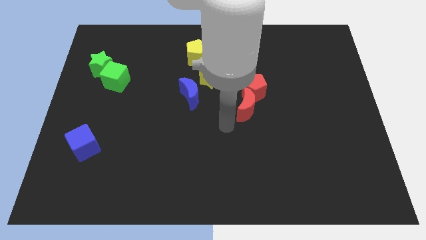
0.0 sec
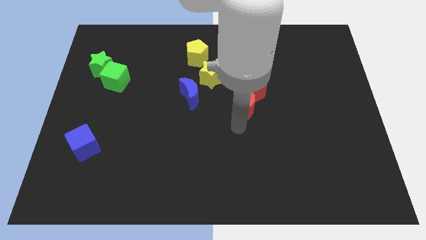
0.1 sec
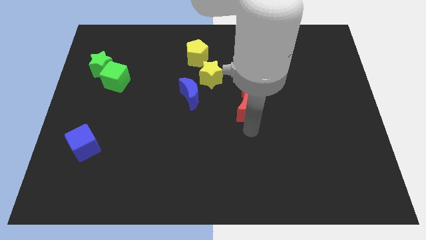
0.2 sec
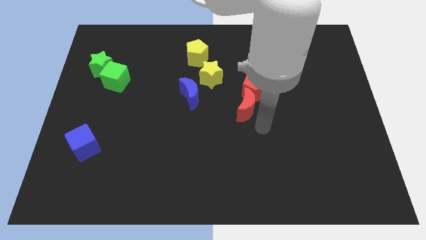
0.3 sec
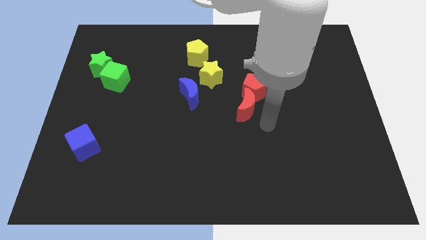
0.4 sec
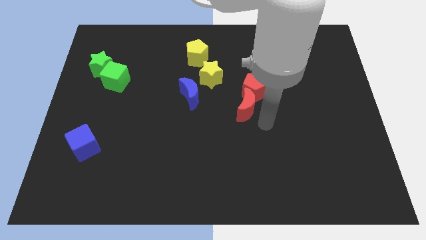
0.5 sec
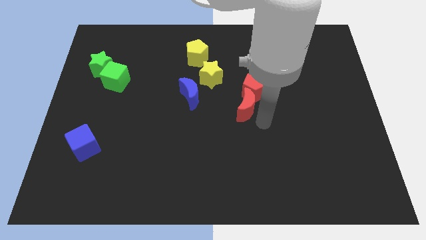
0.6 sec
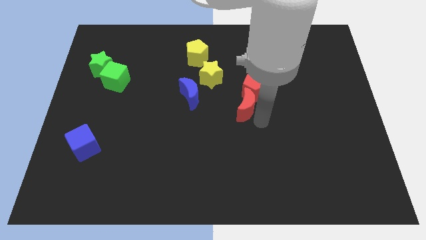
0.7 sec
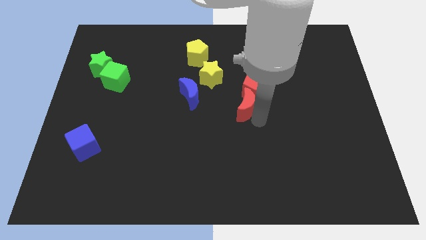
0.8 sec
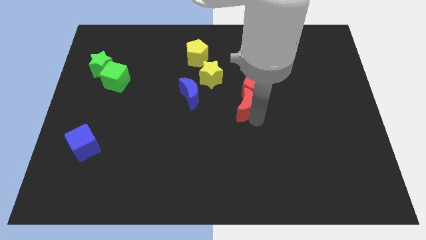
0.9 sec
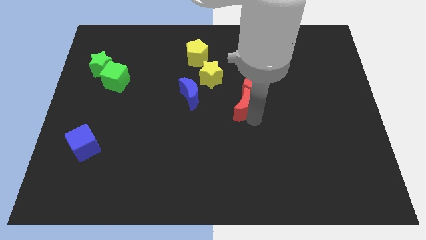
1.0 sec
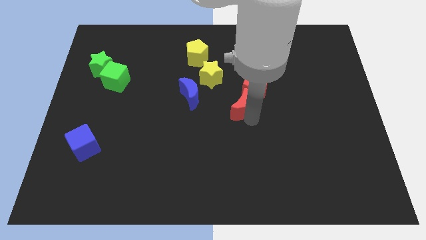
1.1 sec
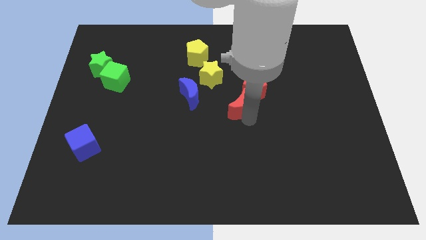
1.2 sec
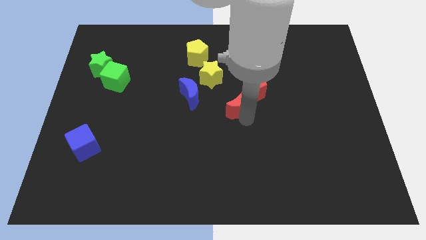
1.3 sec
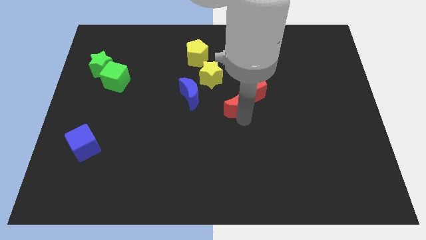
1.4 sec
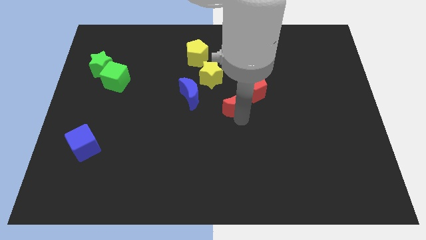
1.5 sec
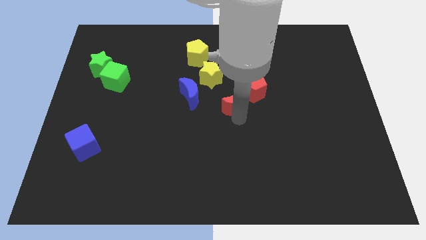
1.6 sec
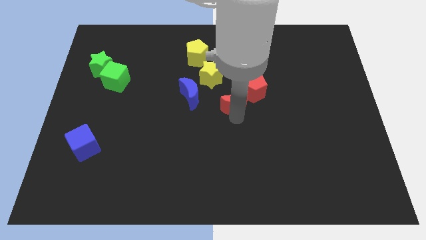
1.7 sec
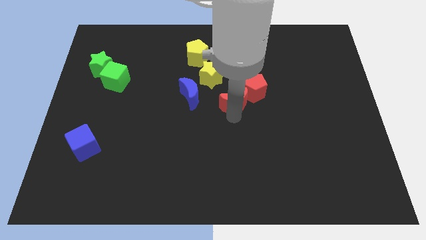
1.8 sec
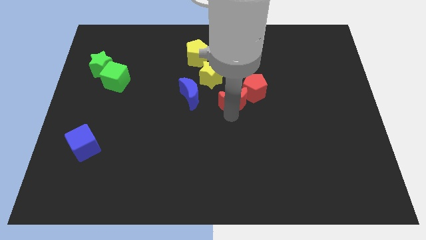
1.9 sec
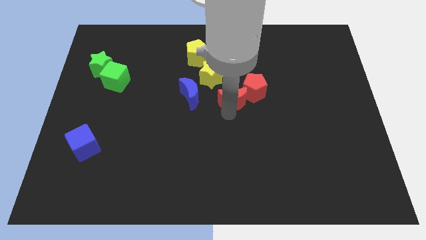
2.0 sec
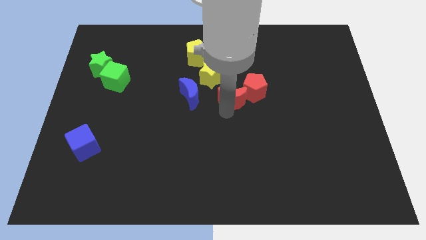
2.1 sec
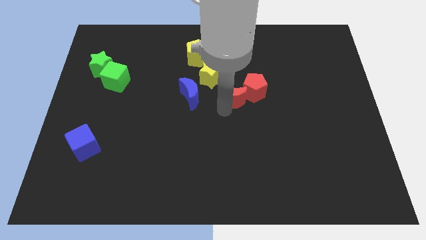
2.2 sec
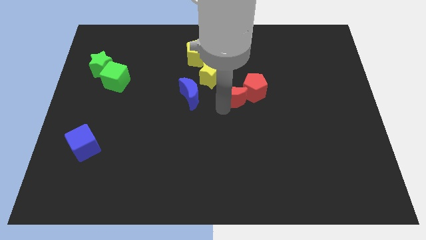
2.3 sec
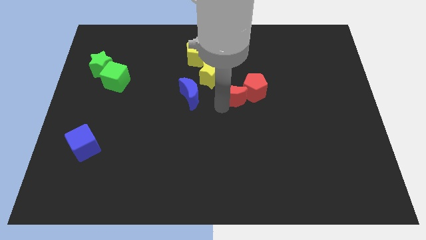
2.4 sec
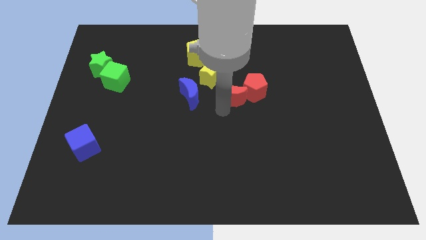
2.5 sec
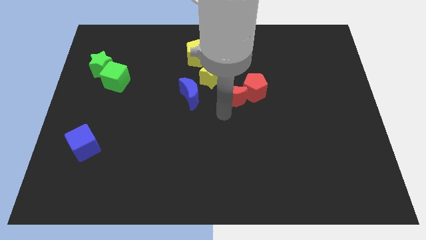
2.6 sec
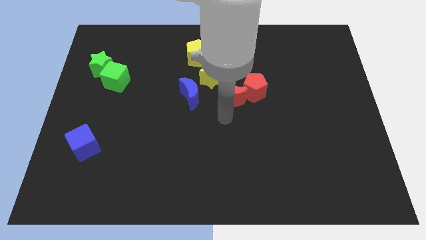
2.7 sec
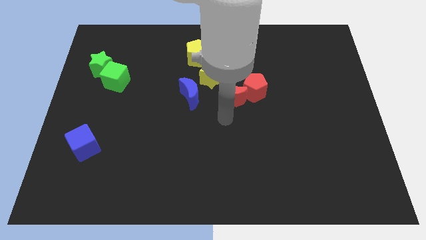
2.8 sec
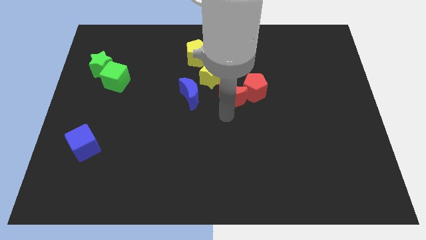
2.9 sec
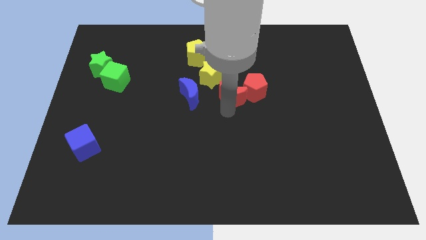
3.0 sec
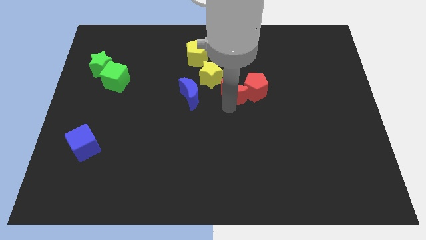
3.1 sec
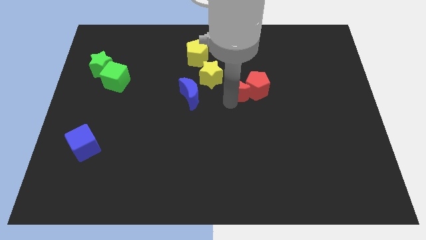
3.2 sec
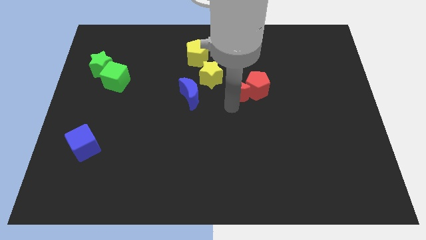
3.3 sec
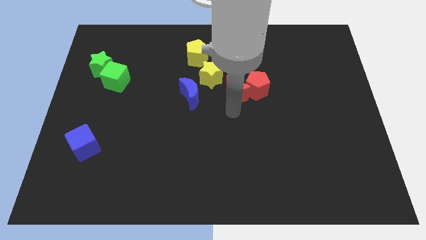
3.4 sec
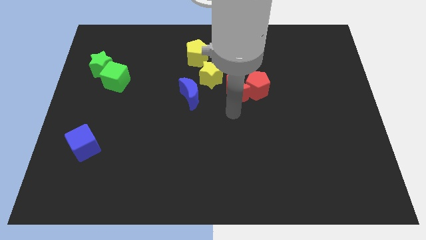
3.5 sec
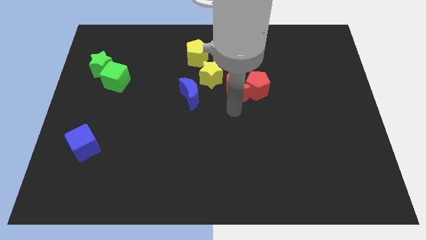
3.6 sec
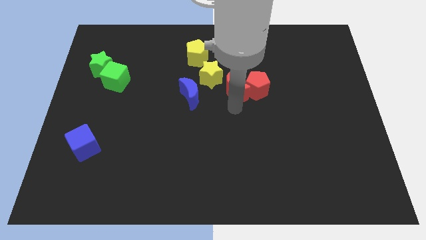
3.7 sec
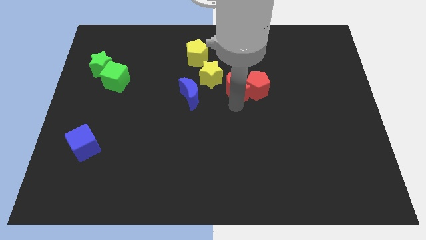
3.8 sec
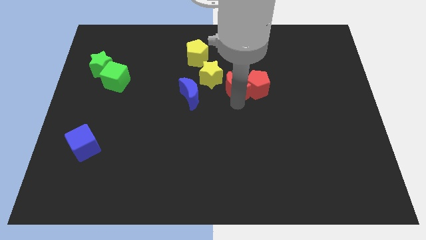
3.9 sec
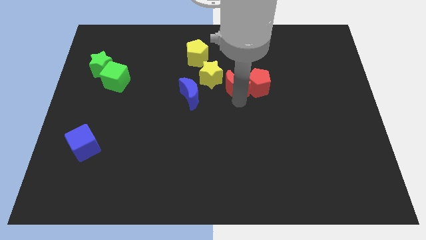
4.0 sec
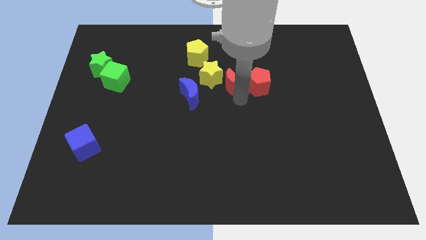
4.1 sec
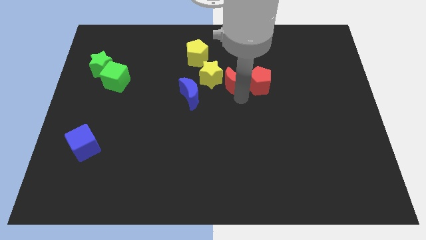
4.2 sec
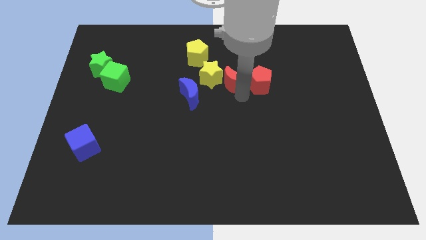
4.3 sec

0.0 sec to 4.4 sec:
slide the red moon up and left diagonally a bit

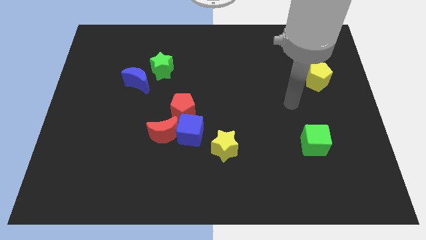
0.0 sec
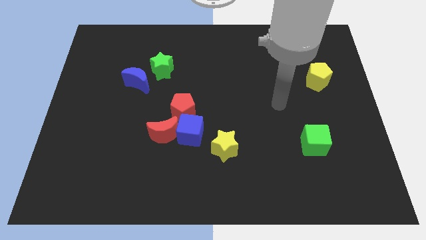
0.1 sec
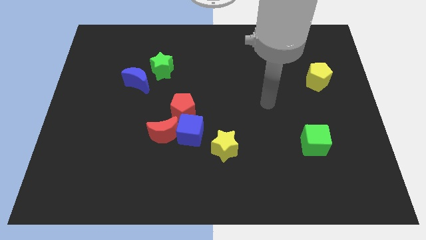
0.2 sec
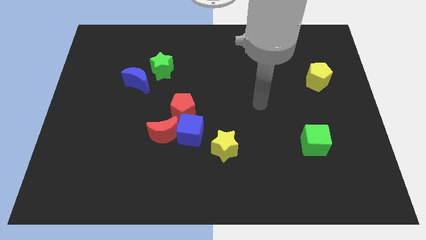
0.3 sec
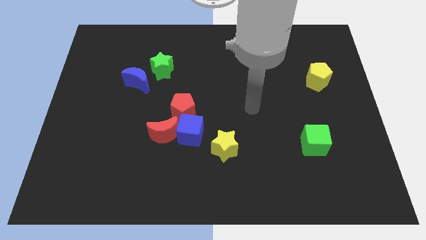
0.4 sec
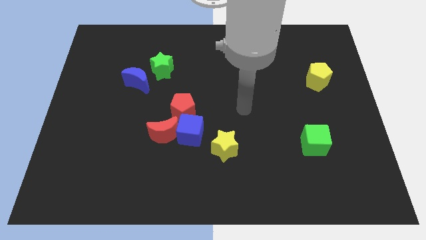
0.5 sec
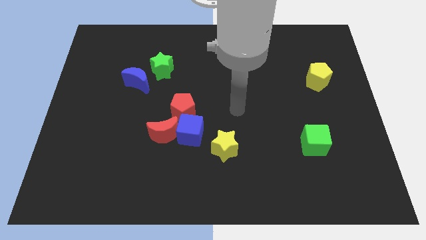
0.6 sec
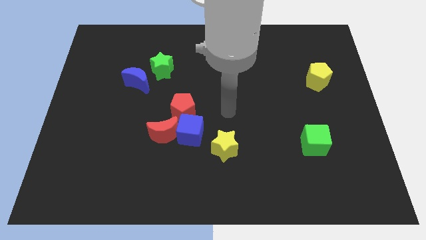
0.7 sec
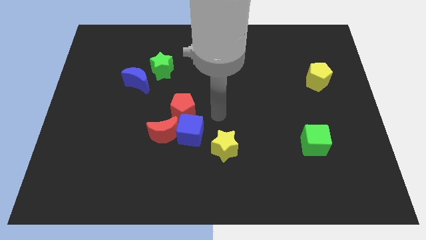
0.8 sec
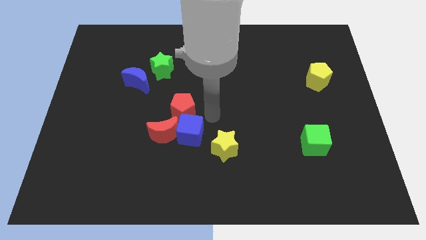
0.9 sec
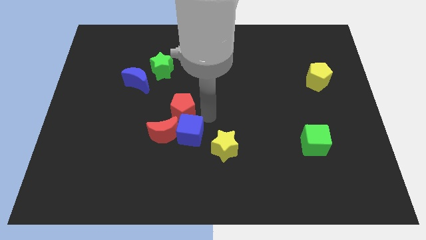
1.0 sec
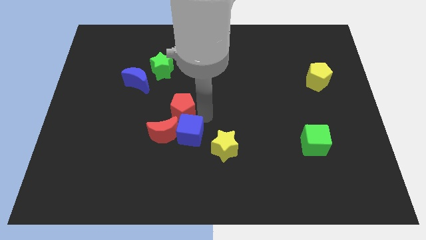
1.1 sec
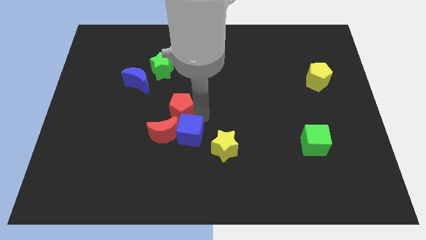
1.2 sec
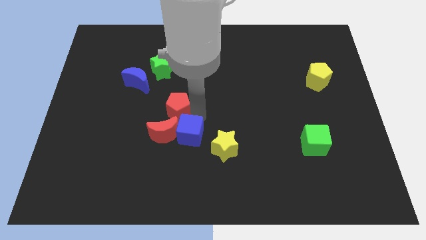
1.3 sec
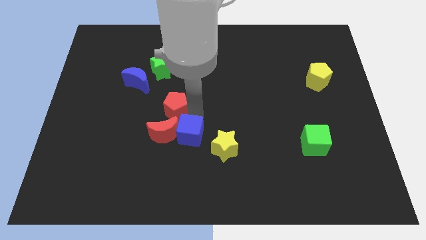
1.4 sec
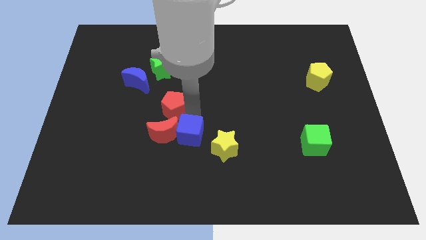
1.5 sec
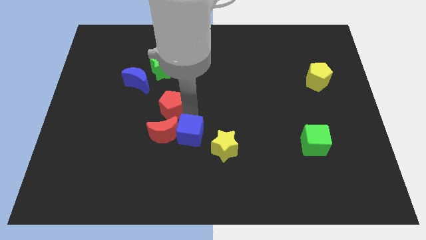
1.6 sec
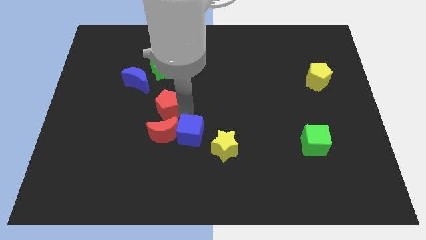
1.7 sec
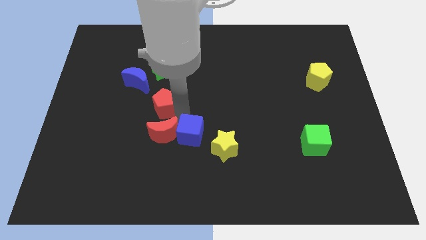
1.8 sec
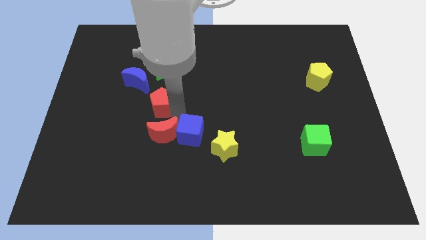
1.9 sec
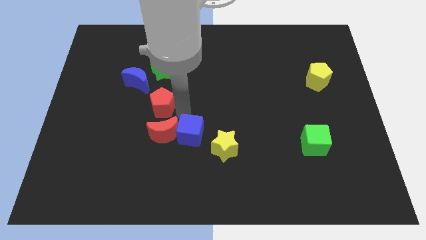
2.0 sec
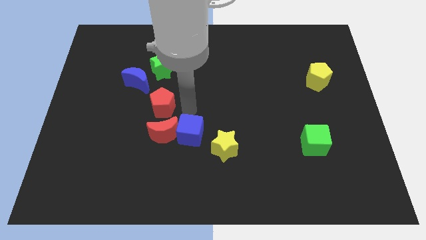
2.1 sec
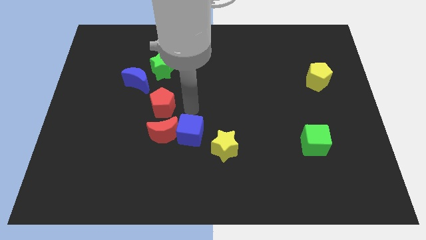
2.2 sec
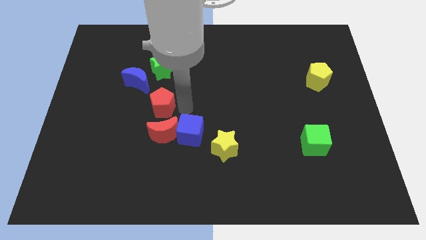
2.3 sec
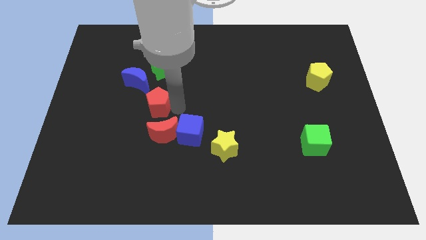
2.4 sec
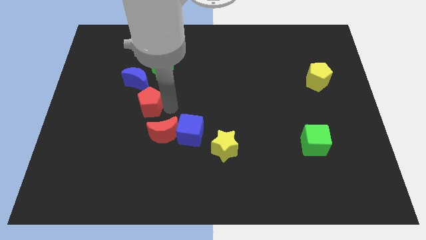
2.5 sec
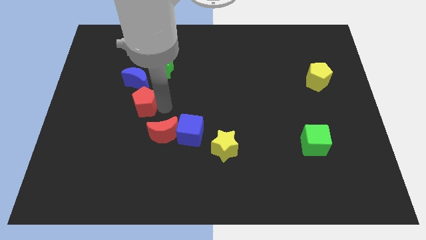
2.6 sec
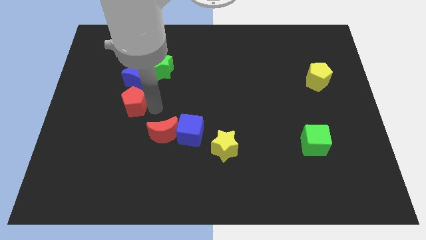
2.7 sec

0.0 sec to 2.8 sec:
slide the red pentagon up and to the left a little

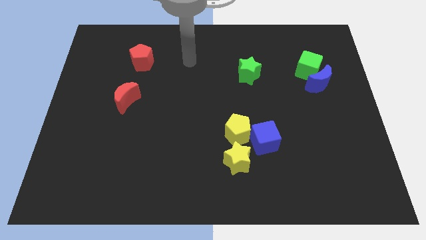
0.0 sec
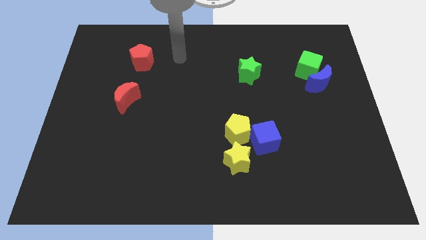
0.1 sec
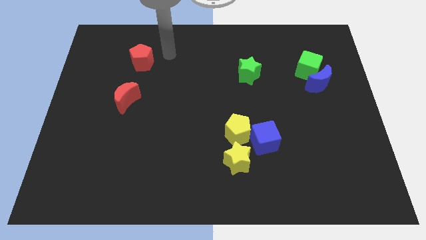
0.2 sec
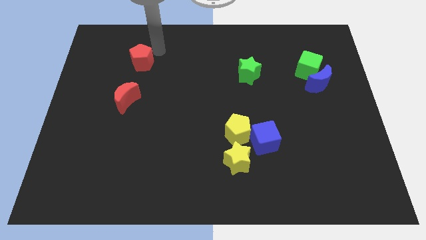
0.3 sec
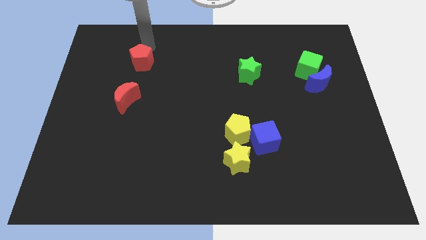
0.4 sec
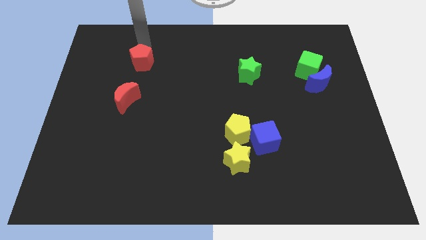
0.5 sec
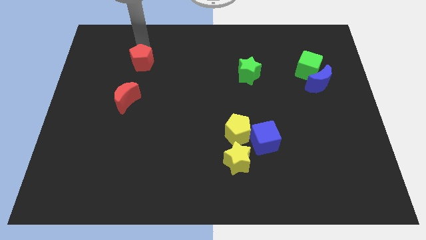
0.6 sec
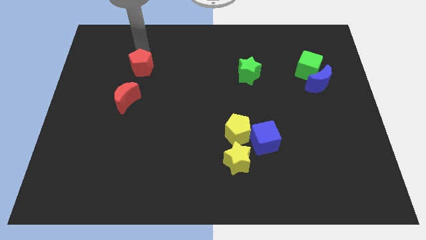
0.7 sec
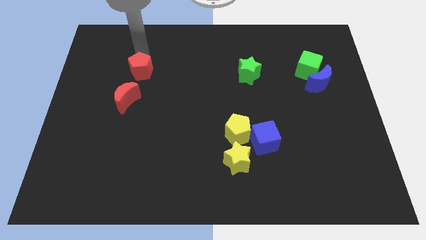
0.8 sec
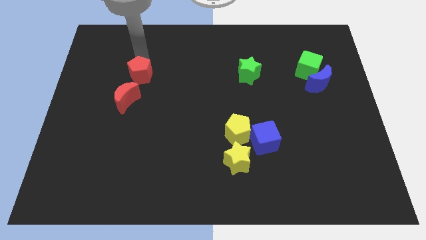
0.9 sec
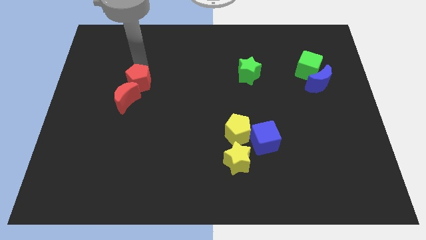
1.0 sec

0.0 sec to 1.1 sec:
slightly move the red pentagon downwards

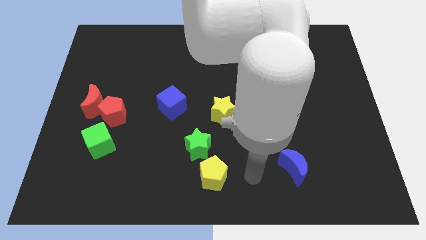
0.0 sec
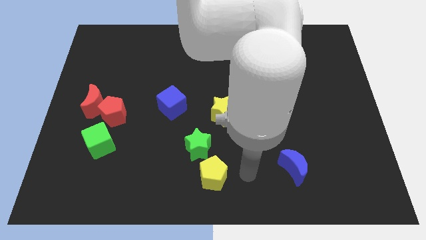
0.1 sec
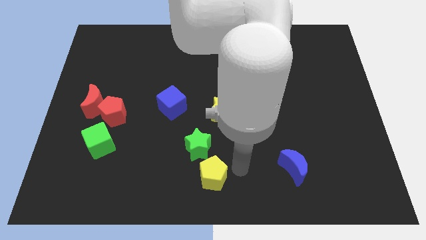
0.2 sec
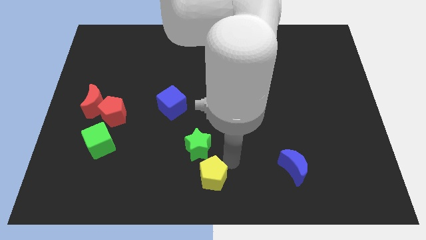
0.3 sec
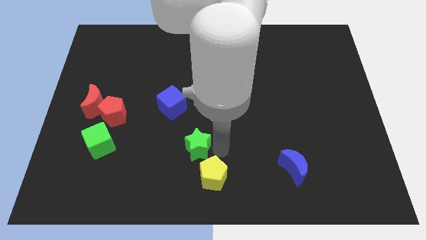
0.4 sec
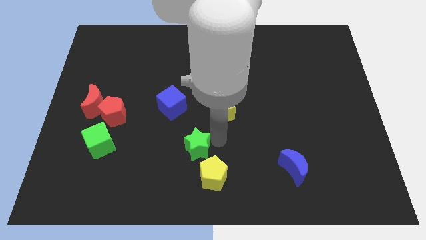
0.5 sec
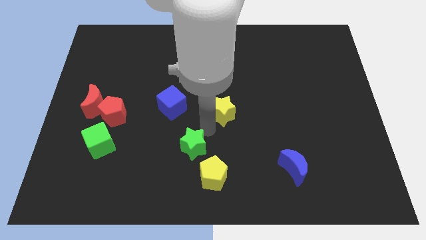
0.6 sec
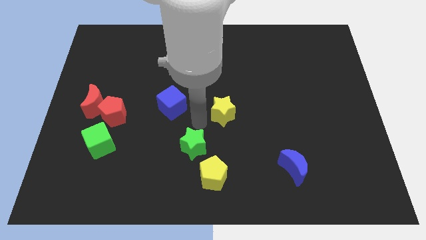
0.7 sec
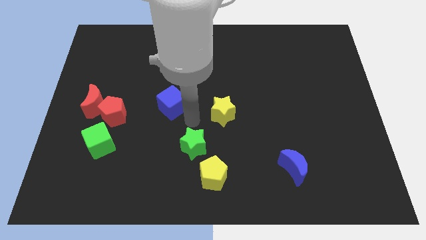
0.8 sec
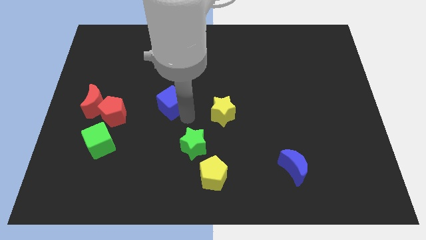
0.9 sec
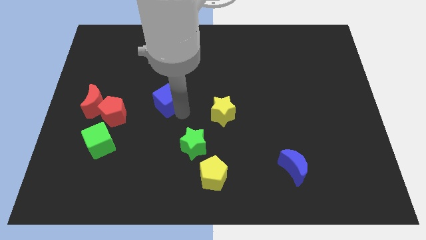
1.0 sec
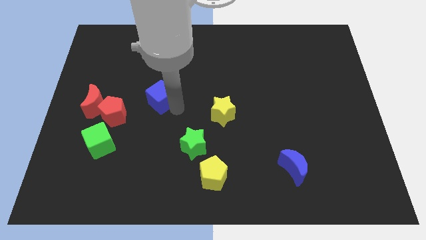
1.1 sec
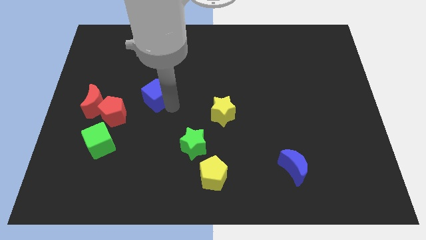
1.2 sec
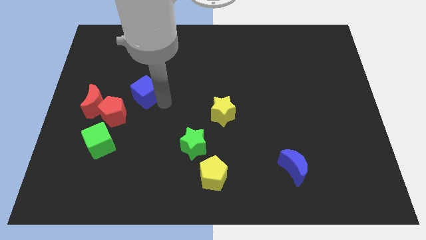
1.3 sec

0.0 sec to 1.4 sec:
slightly slide the blue cube upwards and then left
